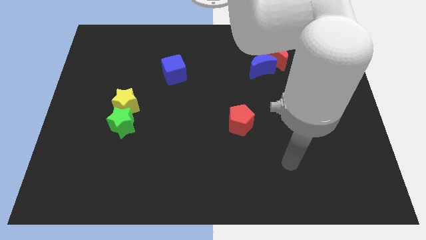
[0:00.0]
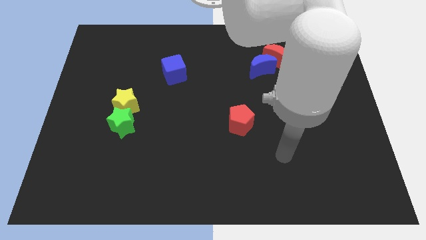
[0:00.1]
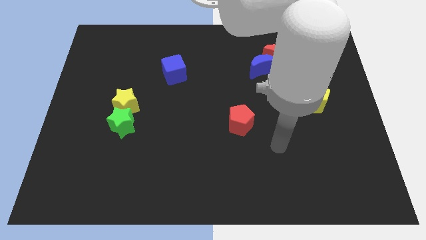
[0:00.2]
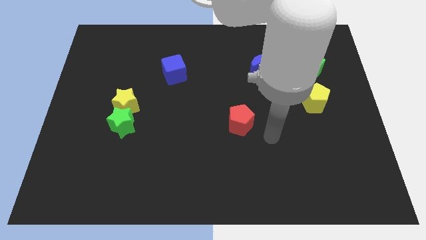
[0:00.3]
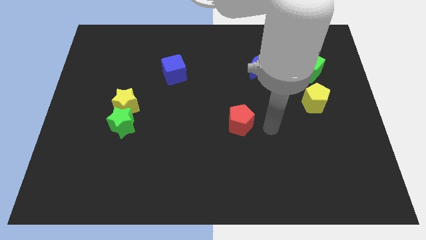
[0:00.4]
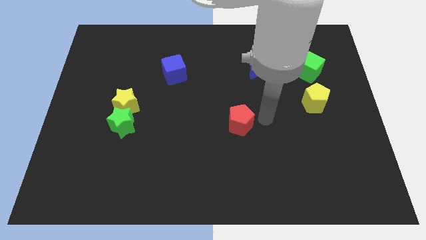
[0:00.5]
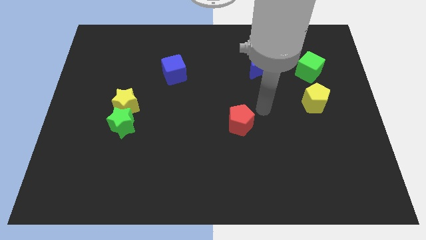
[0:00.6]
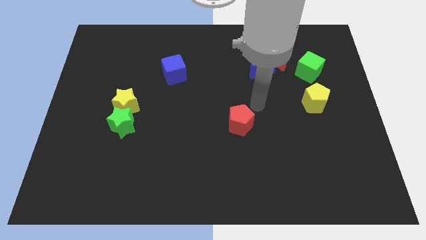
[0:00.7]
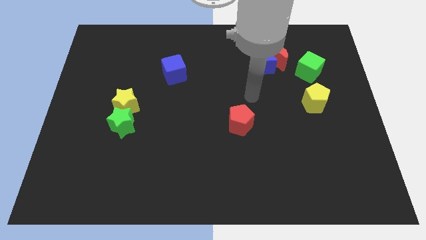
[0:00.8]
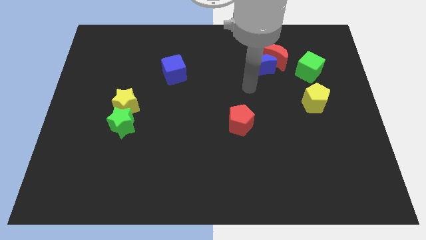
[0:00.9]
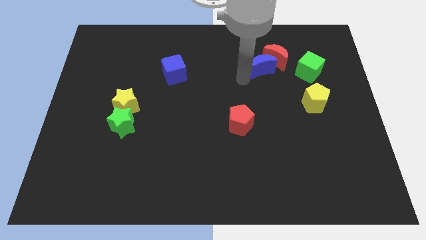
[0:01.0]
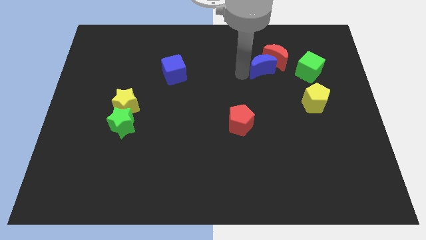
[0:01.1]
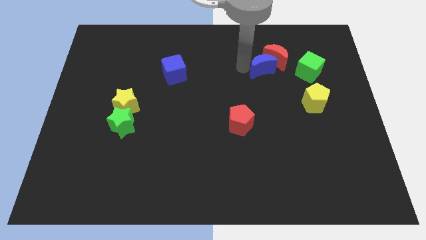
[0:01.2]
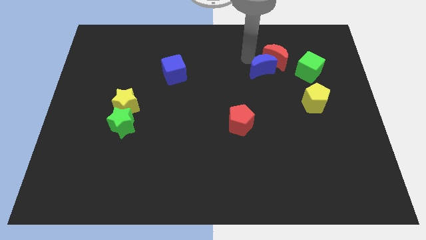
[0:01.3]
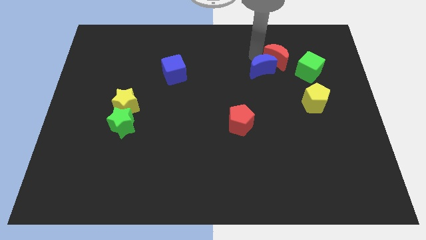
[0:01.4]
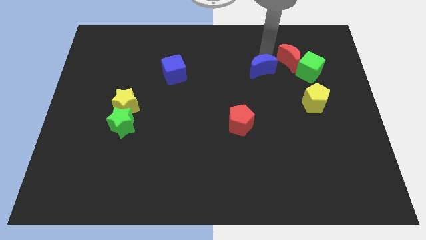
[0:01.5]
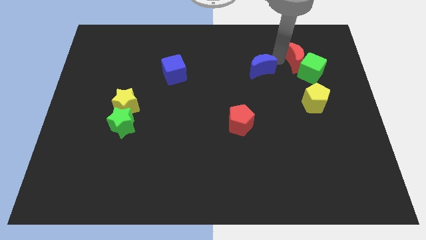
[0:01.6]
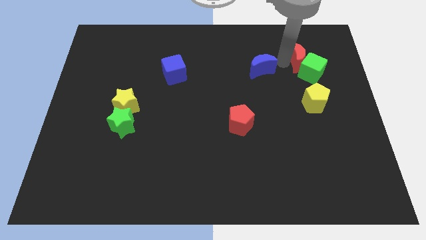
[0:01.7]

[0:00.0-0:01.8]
separate the blue moon from the red moon

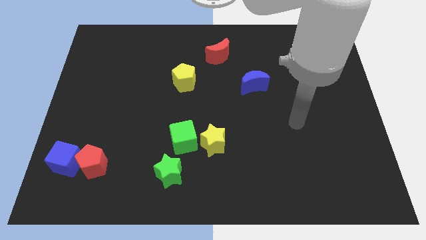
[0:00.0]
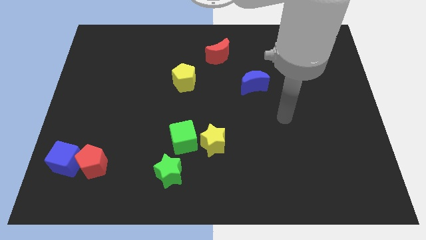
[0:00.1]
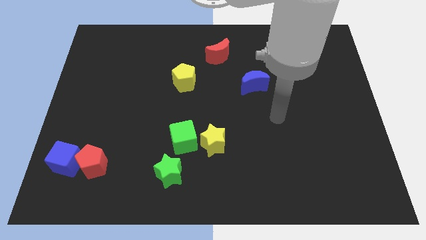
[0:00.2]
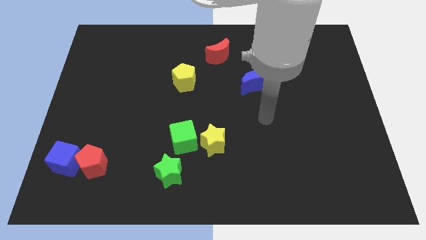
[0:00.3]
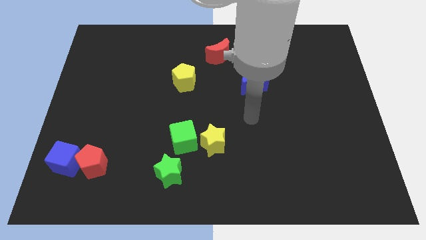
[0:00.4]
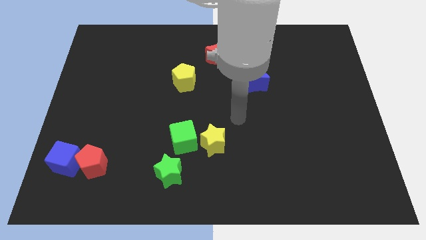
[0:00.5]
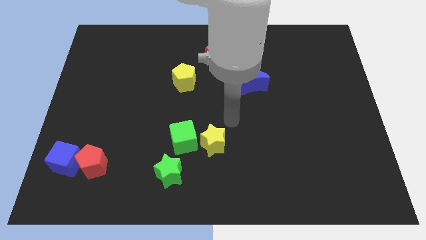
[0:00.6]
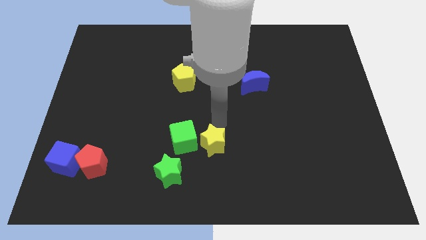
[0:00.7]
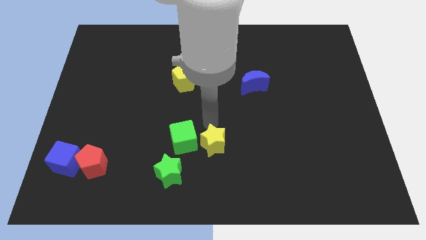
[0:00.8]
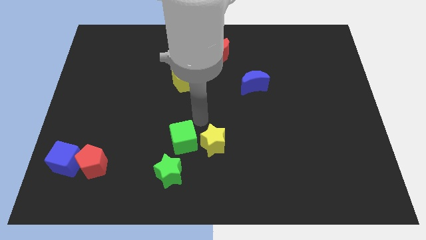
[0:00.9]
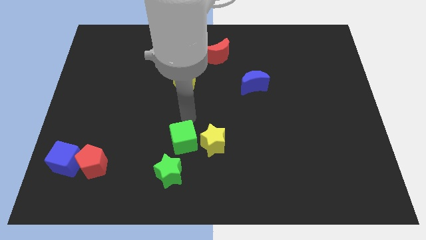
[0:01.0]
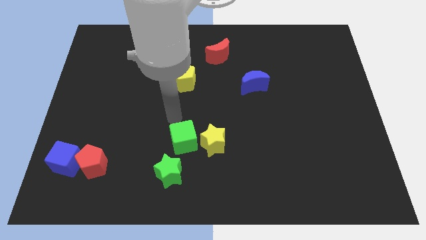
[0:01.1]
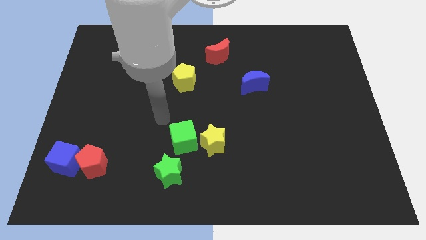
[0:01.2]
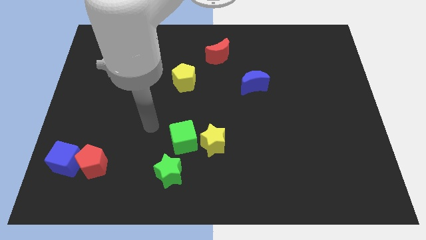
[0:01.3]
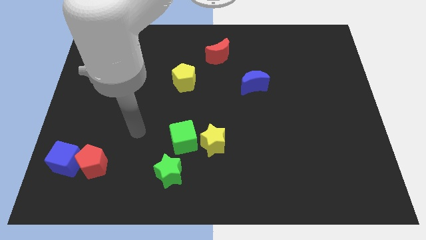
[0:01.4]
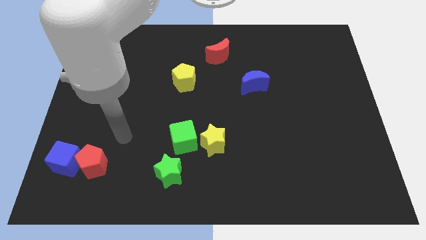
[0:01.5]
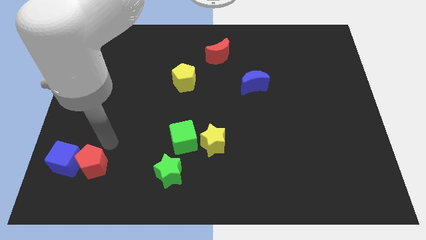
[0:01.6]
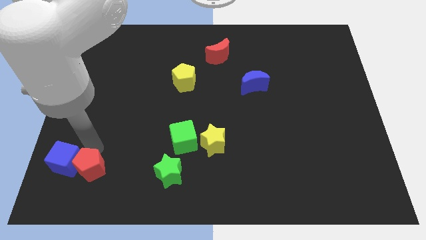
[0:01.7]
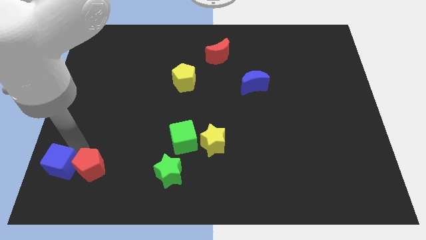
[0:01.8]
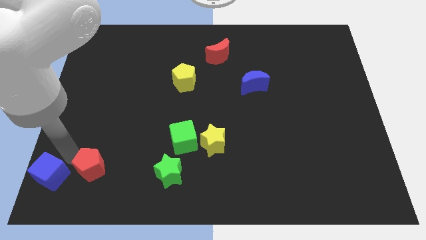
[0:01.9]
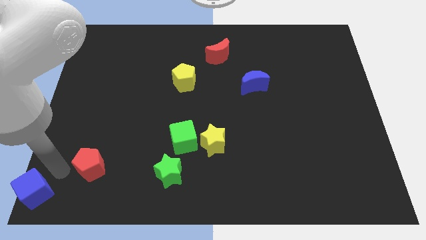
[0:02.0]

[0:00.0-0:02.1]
separate the red pentagon from the blue cube

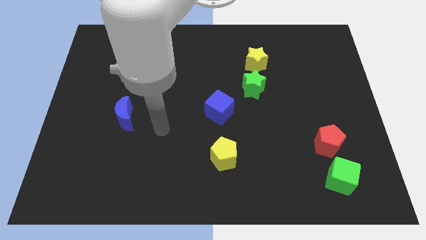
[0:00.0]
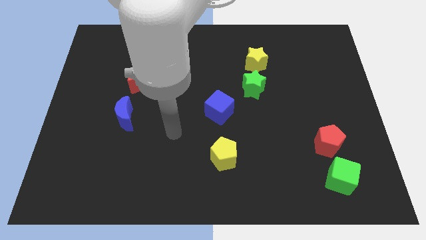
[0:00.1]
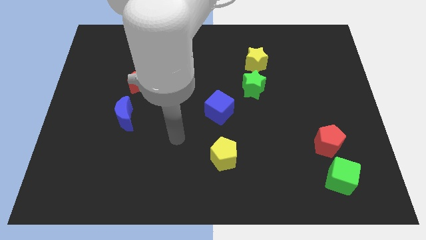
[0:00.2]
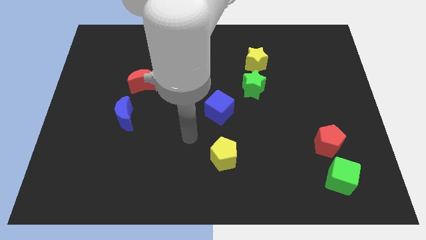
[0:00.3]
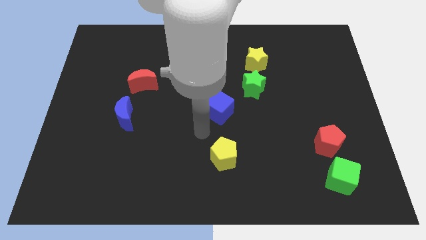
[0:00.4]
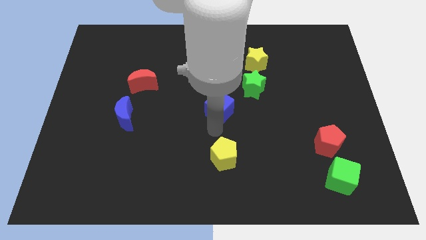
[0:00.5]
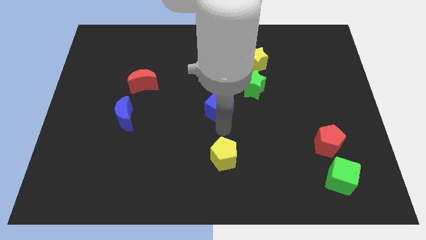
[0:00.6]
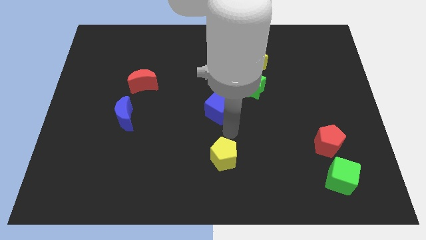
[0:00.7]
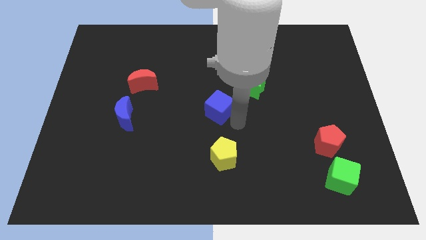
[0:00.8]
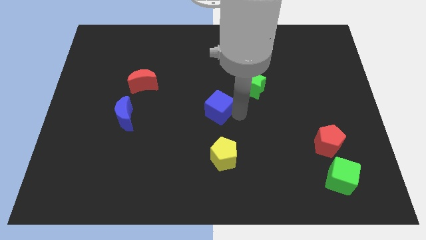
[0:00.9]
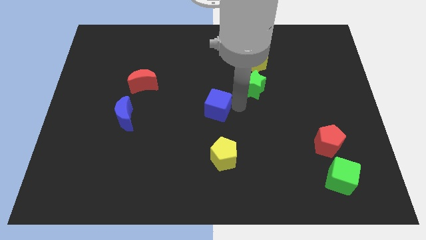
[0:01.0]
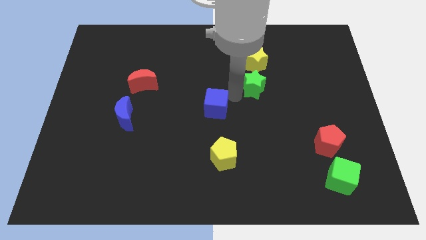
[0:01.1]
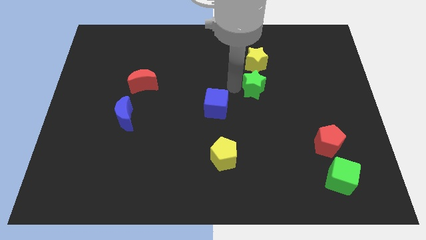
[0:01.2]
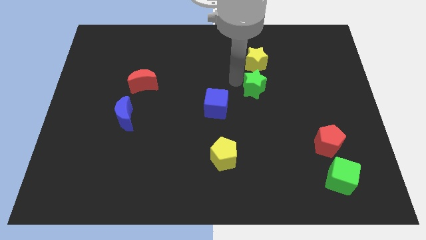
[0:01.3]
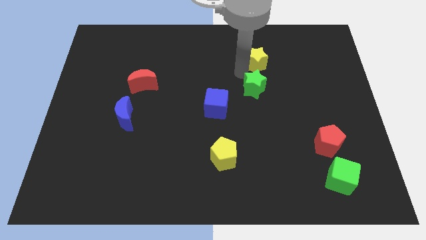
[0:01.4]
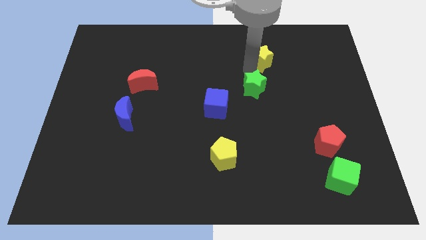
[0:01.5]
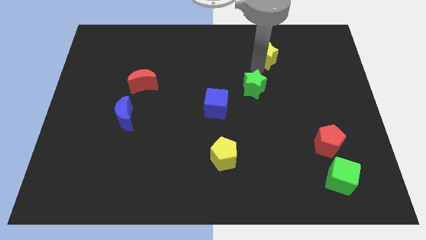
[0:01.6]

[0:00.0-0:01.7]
separate the green star from the yellow star

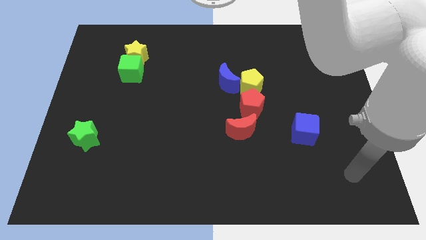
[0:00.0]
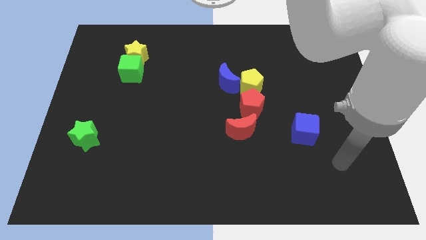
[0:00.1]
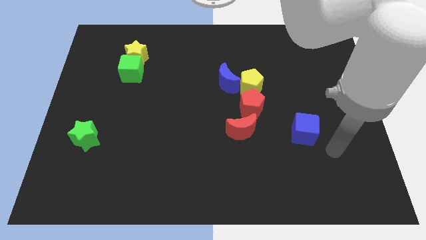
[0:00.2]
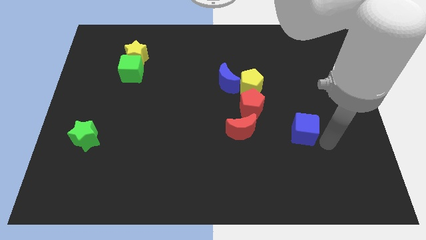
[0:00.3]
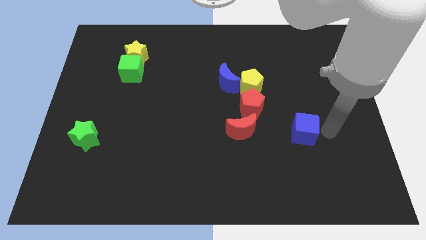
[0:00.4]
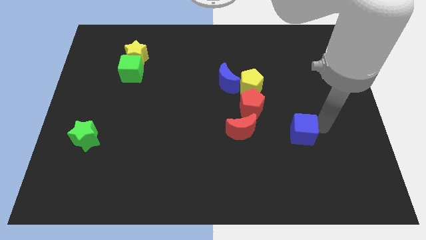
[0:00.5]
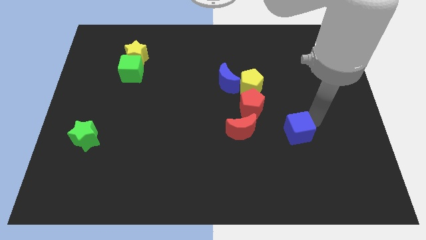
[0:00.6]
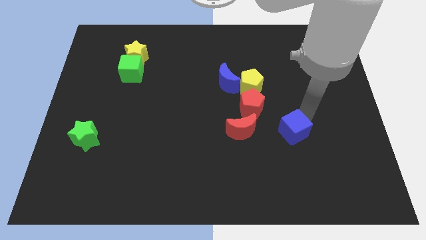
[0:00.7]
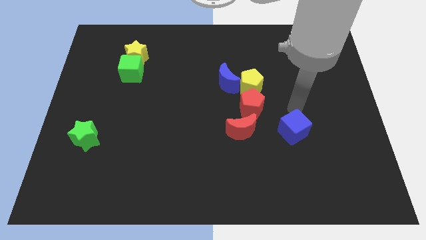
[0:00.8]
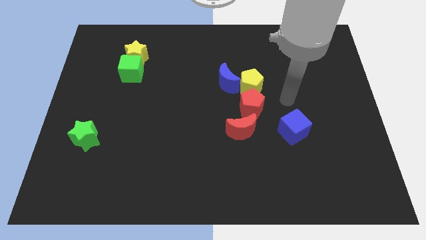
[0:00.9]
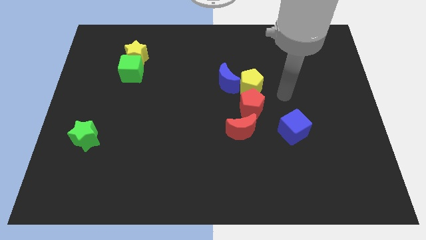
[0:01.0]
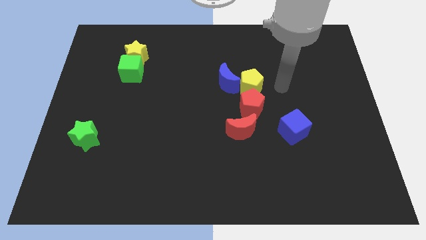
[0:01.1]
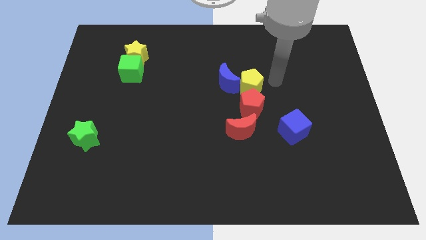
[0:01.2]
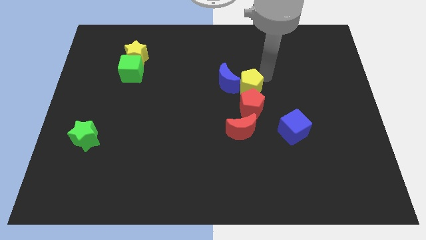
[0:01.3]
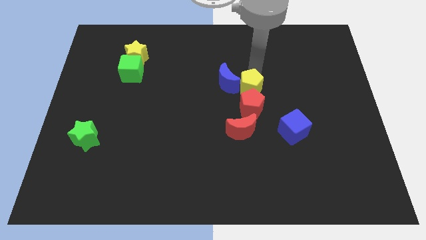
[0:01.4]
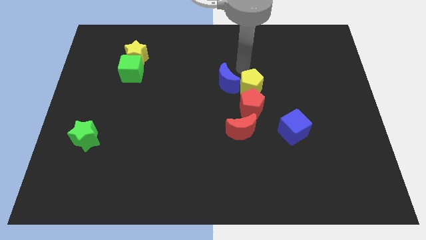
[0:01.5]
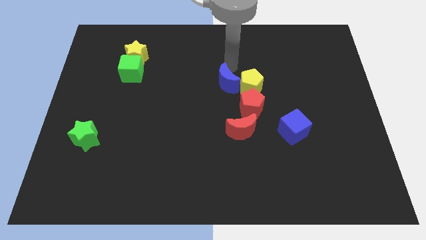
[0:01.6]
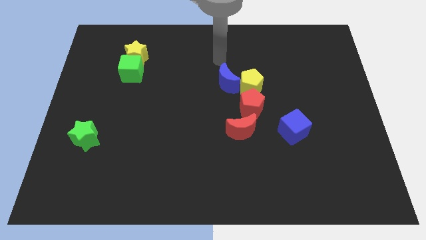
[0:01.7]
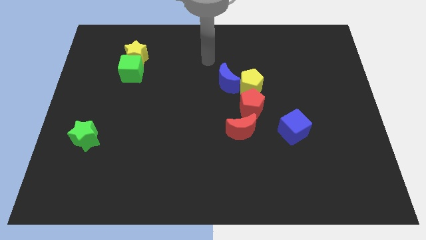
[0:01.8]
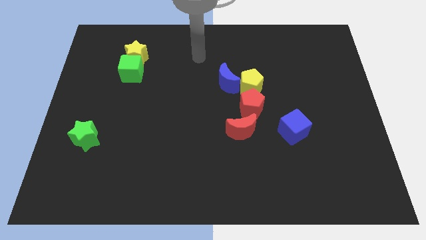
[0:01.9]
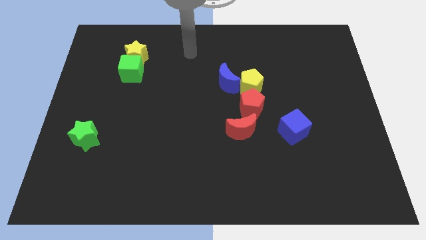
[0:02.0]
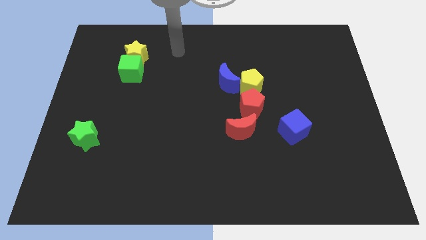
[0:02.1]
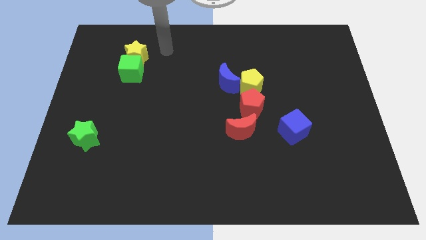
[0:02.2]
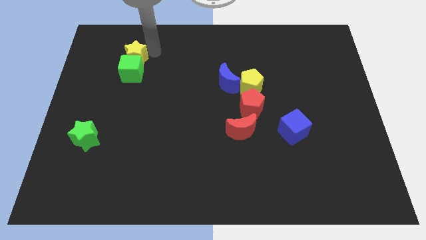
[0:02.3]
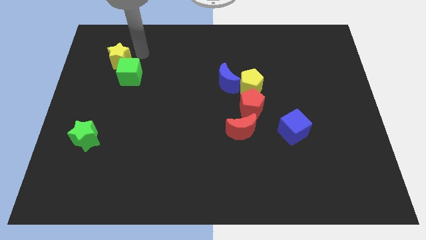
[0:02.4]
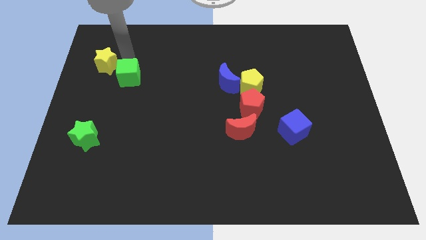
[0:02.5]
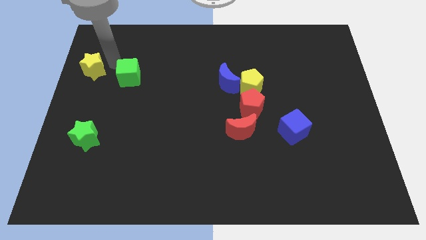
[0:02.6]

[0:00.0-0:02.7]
pull the green cube apart from the yellow star

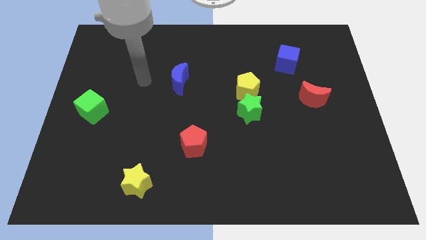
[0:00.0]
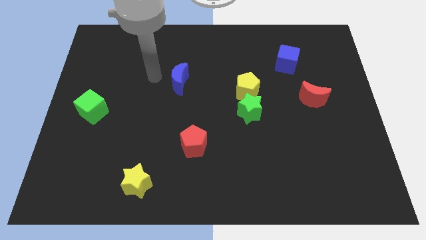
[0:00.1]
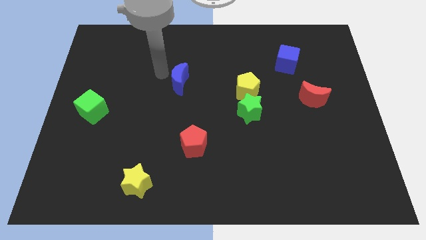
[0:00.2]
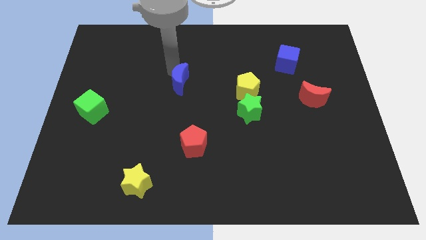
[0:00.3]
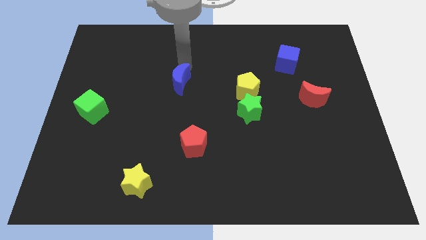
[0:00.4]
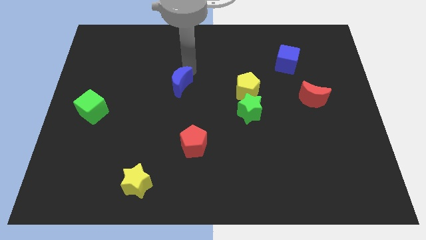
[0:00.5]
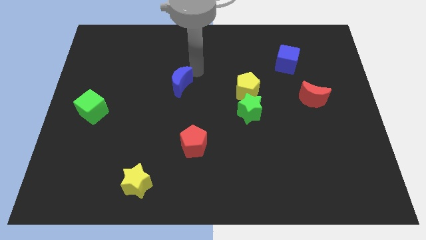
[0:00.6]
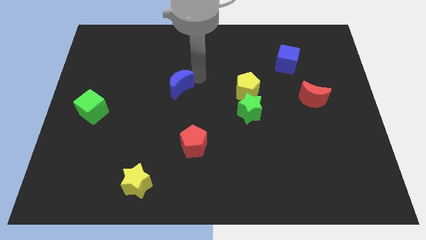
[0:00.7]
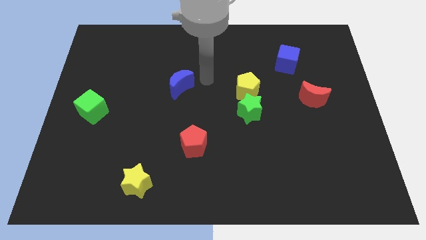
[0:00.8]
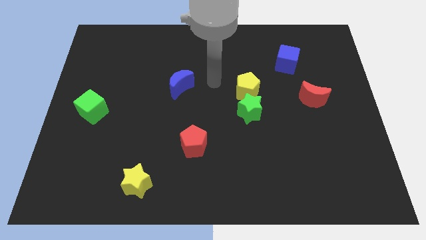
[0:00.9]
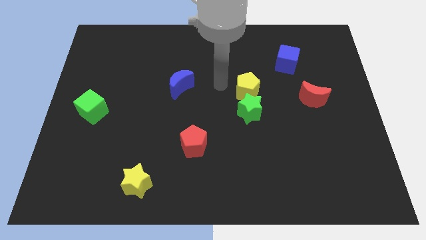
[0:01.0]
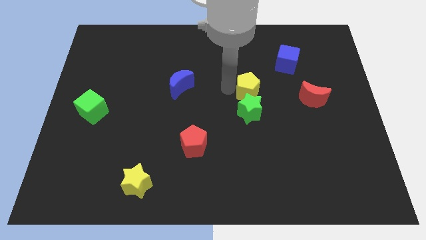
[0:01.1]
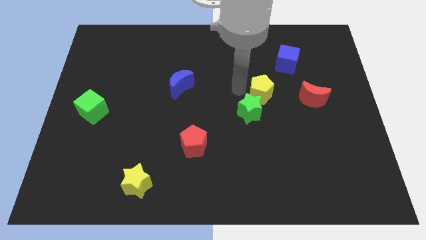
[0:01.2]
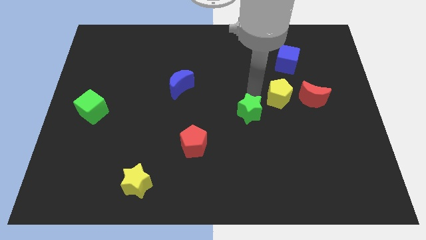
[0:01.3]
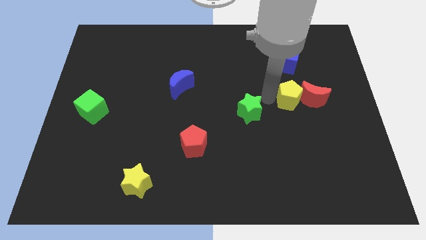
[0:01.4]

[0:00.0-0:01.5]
move the green star away from the yellow pentagon
